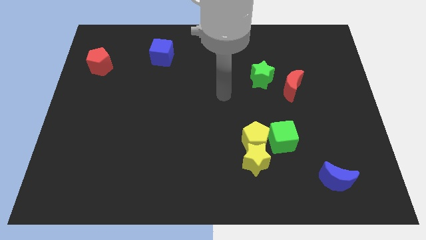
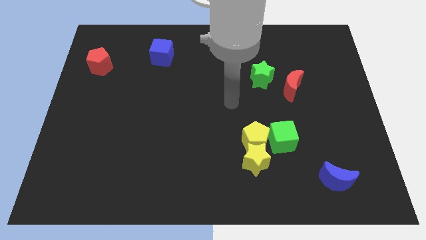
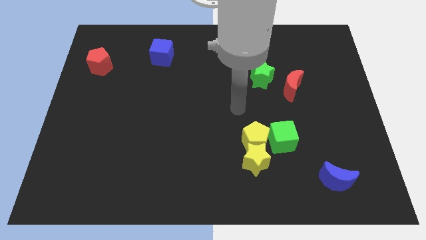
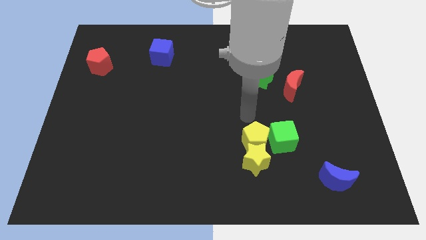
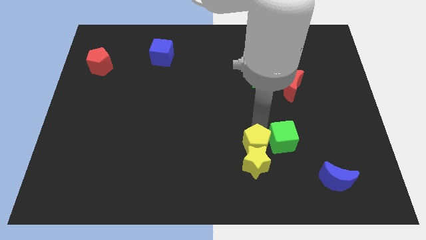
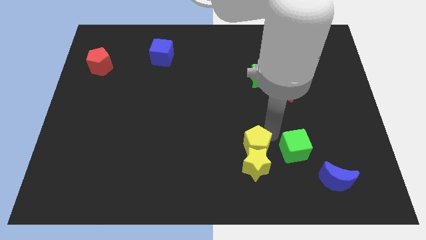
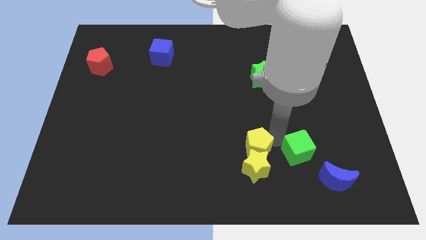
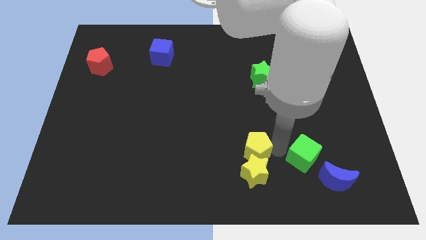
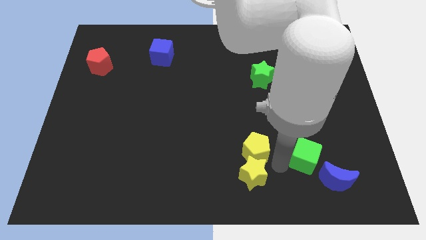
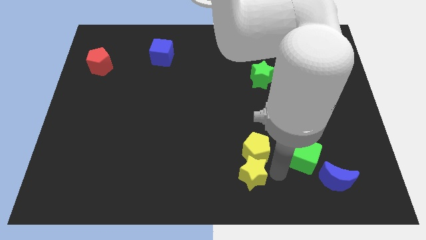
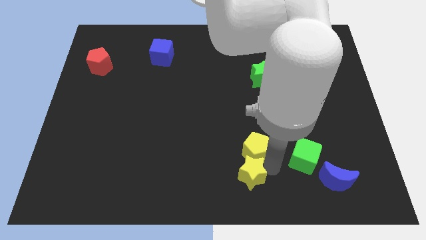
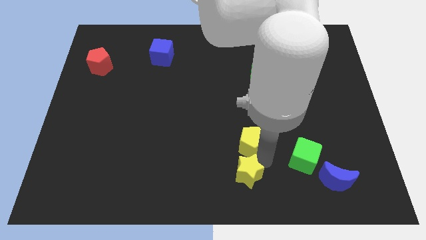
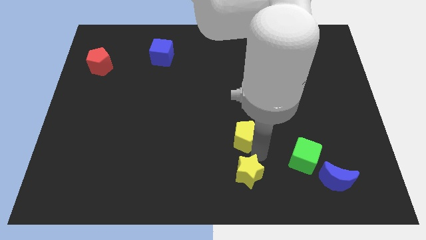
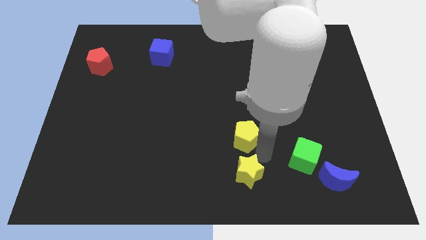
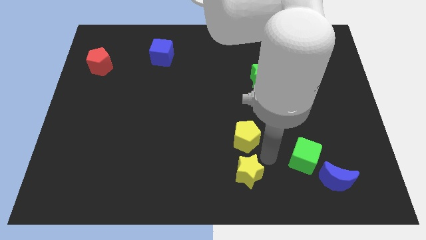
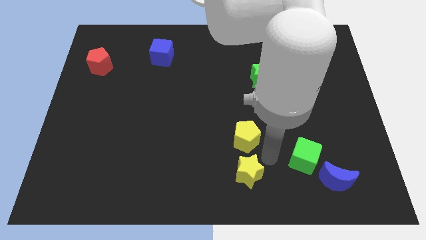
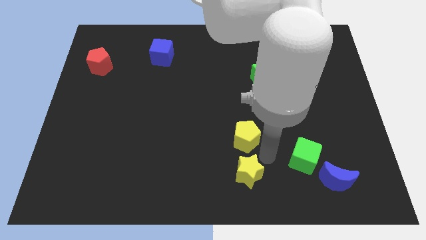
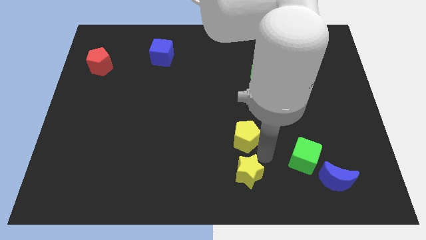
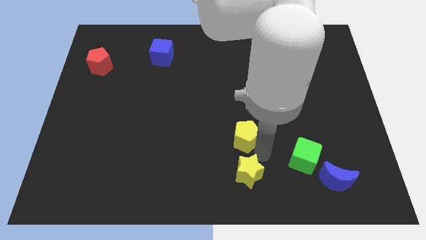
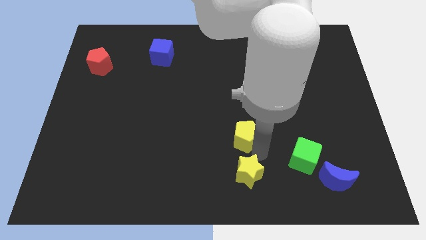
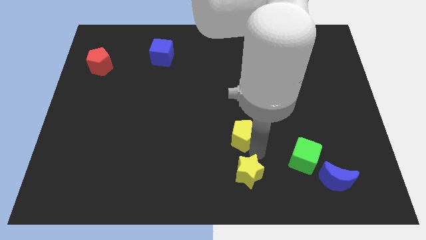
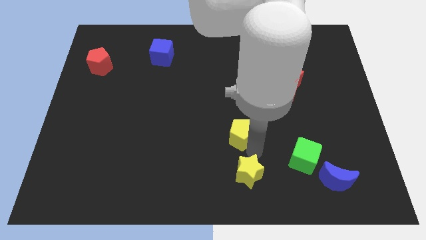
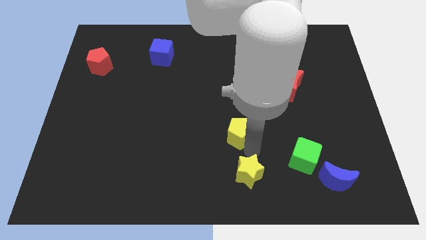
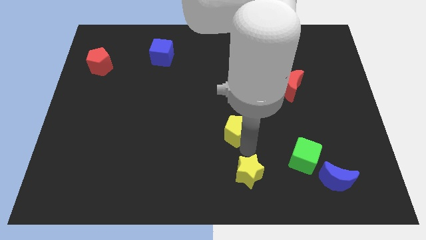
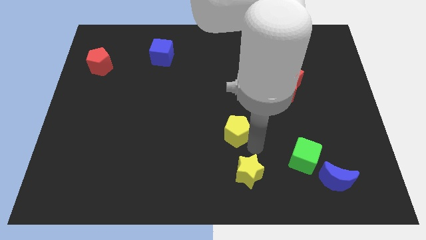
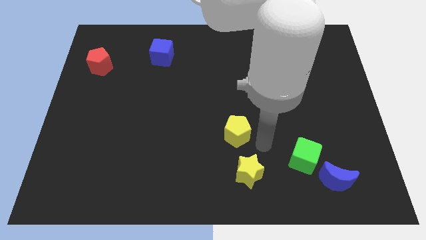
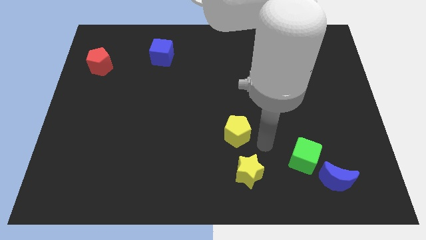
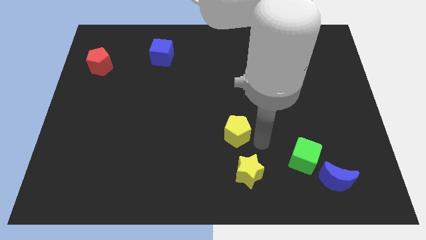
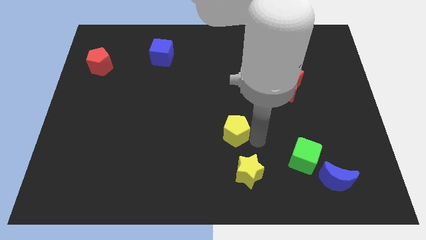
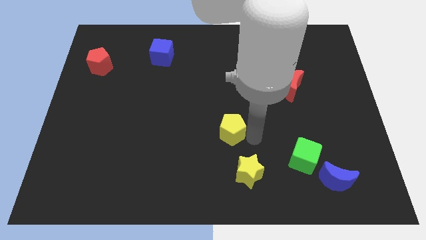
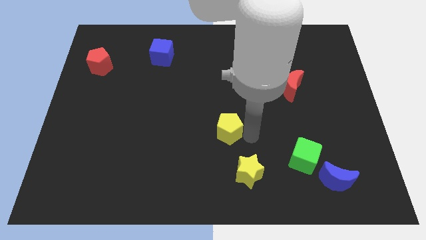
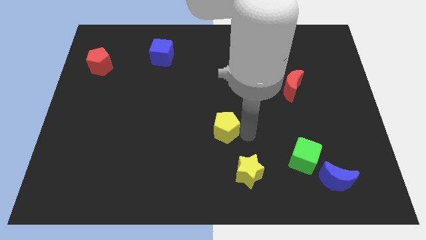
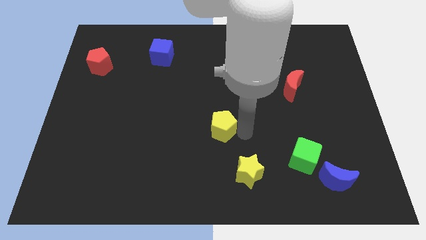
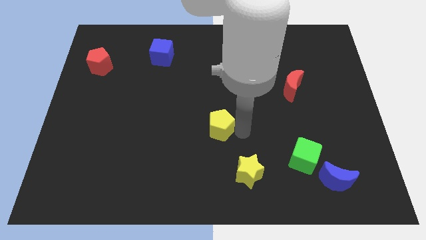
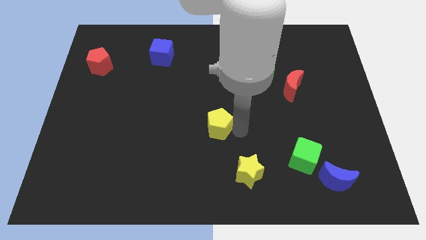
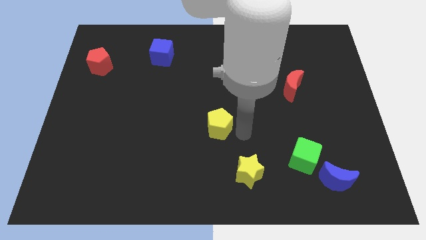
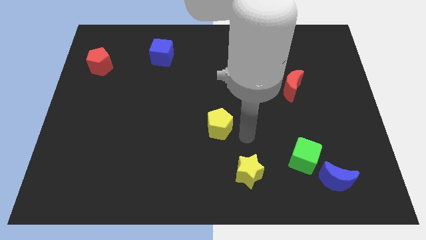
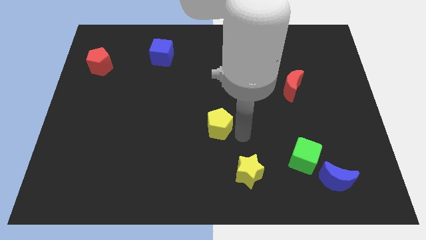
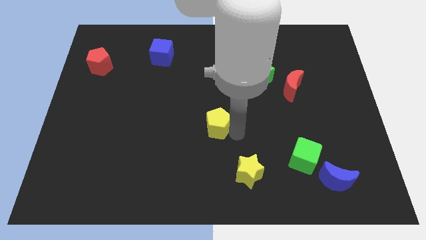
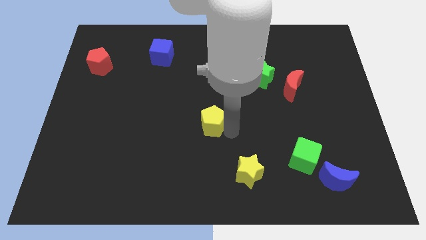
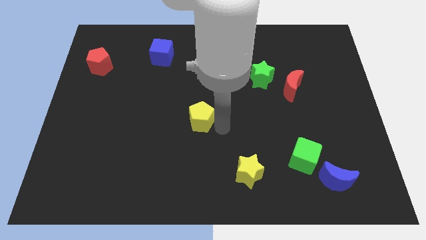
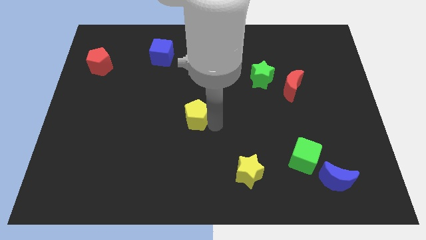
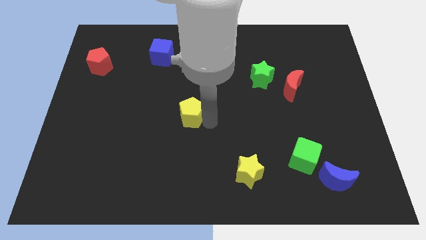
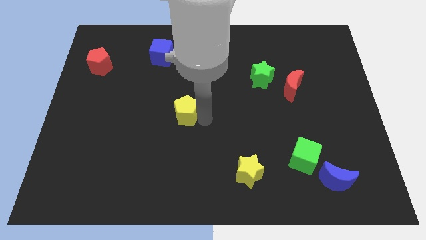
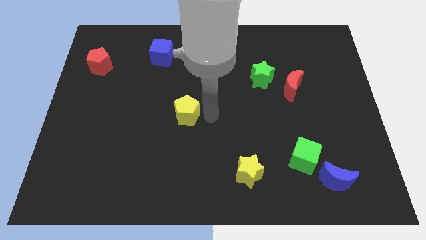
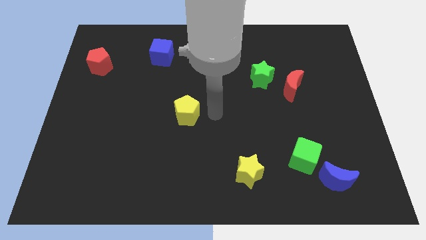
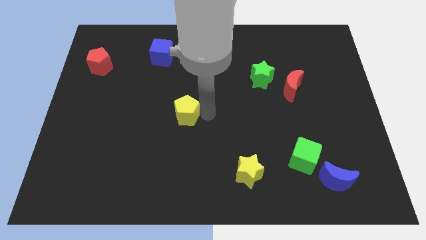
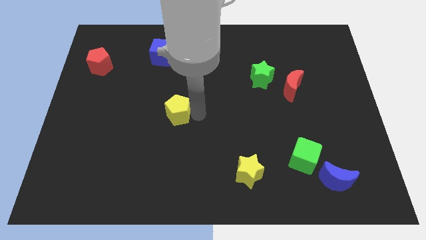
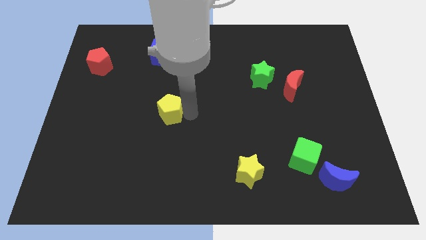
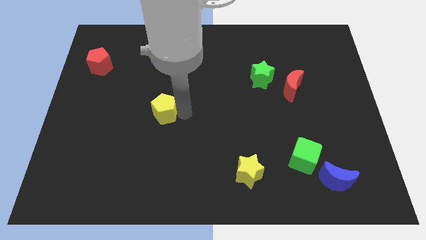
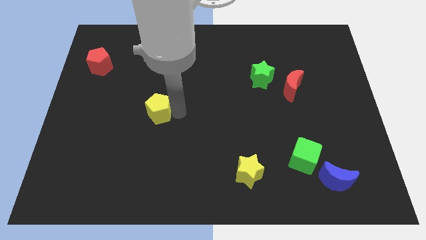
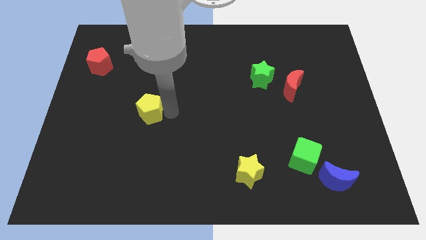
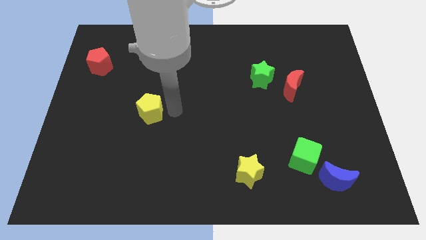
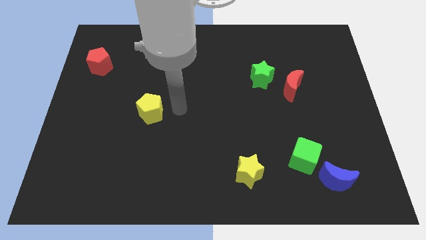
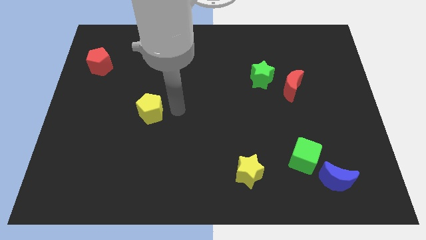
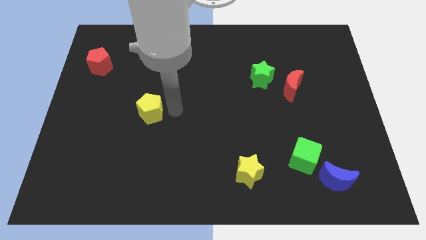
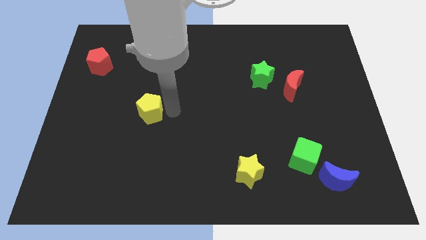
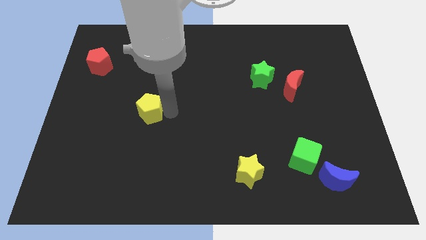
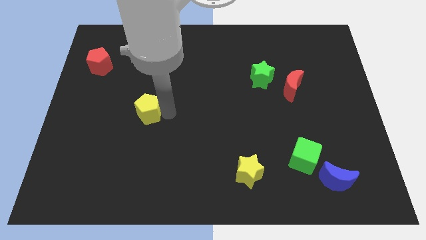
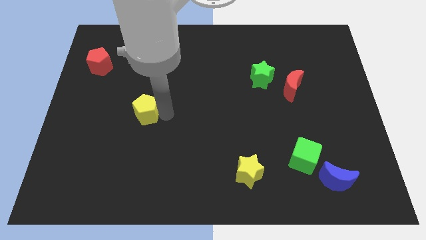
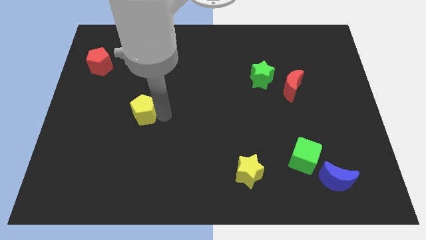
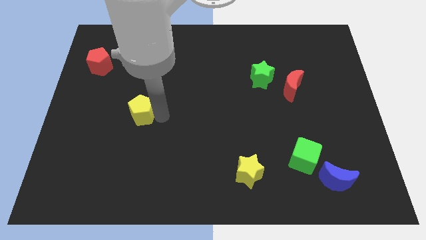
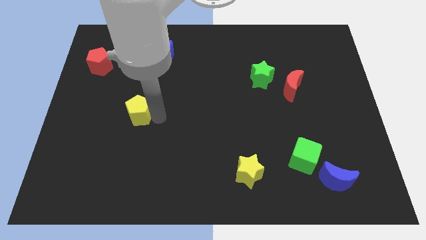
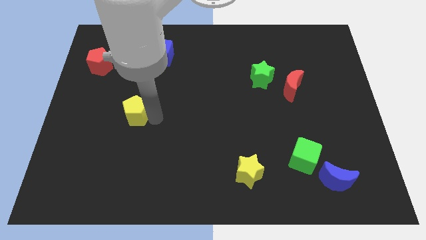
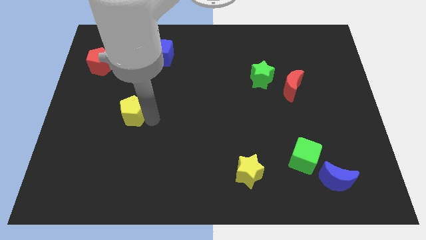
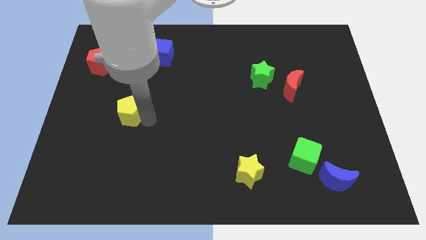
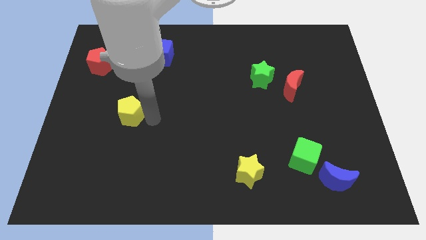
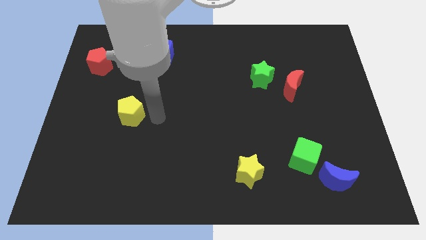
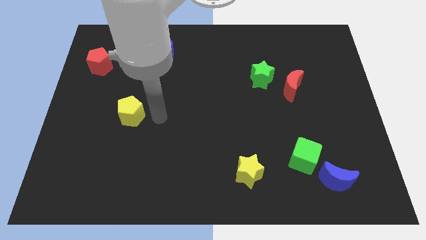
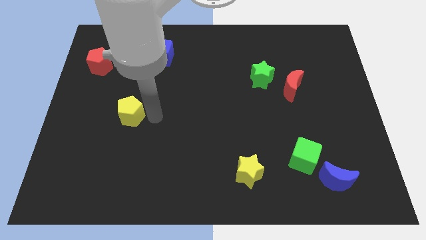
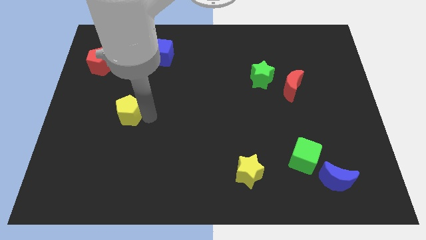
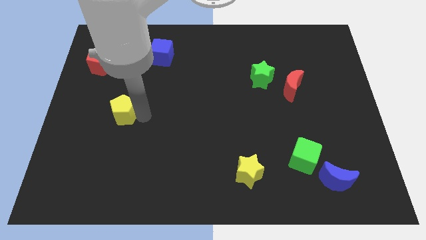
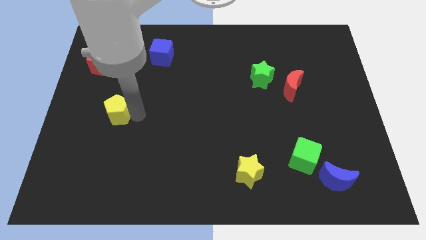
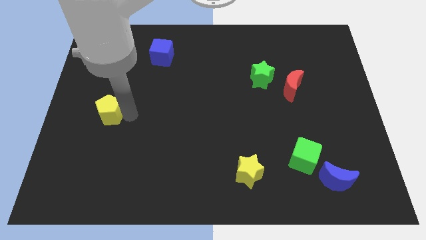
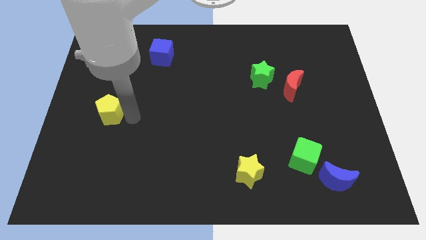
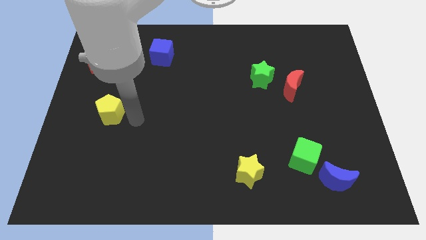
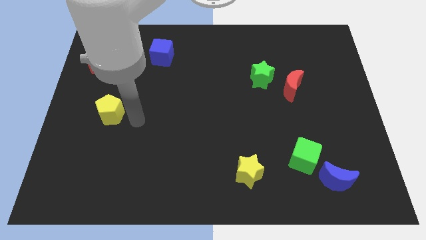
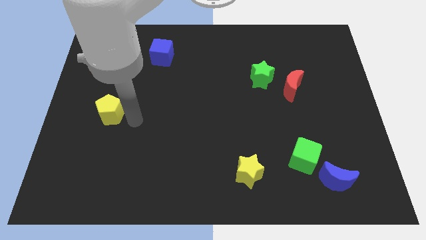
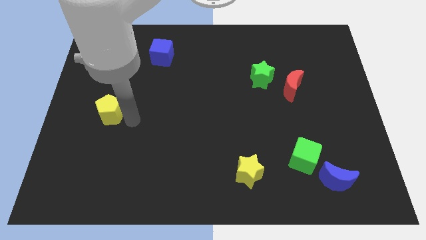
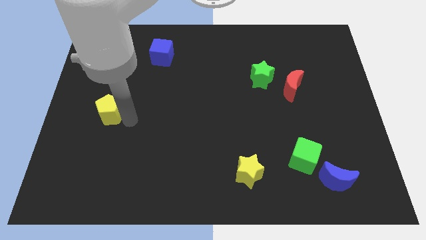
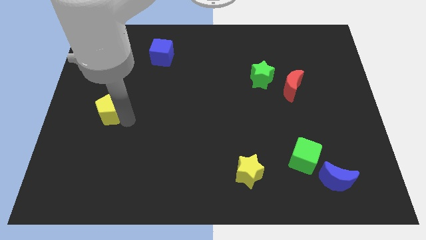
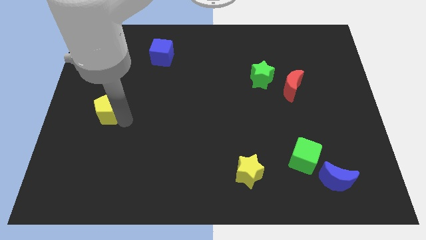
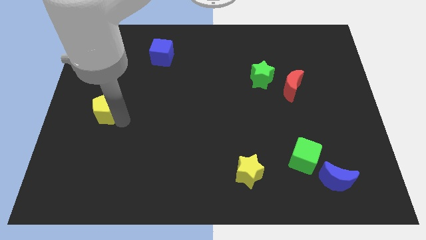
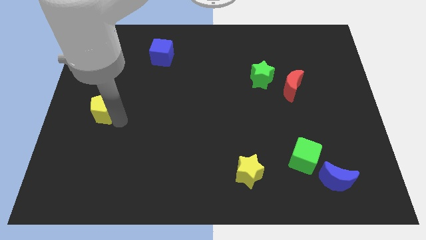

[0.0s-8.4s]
move the yellow pentagon to the left side
